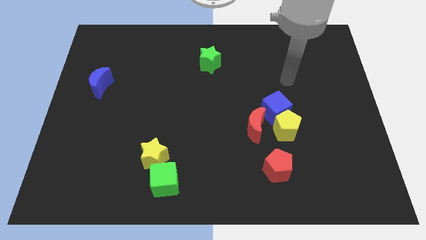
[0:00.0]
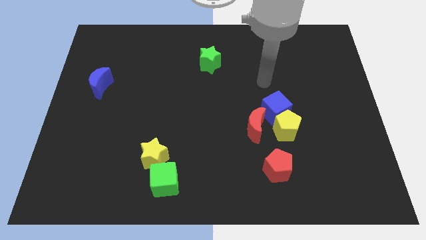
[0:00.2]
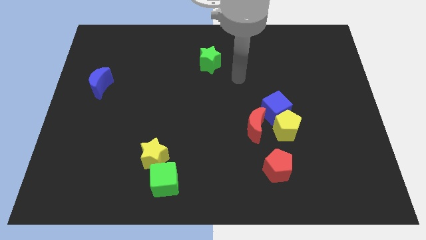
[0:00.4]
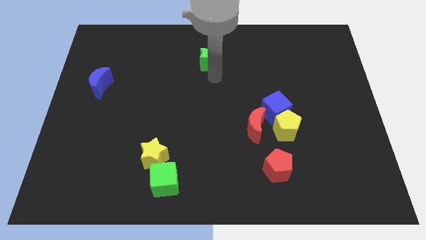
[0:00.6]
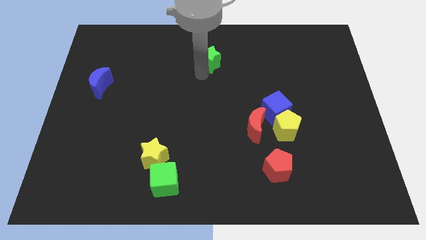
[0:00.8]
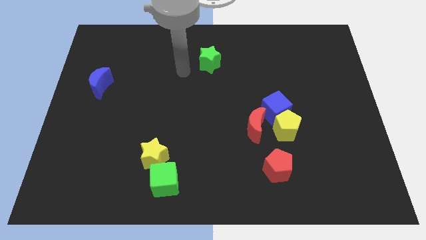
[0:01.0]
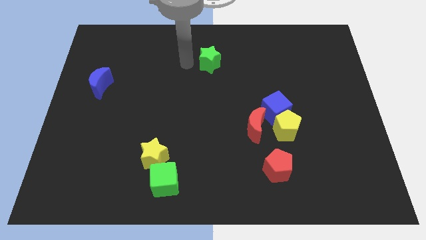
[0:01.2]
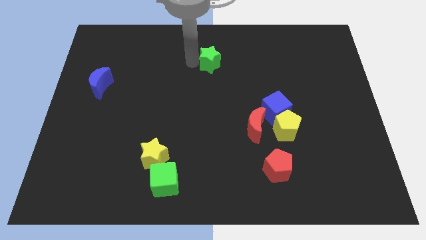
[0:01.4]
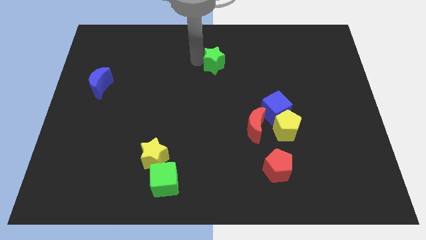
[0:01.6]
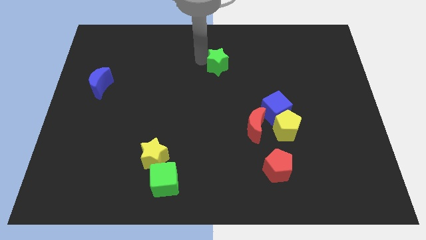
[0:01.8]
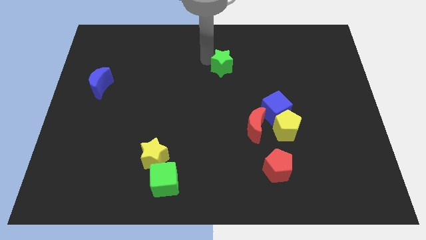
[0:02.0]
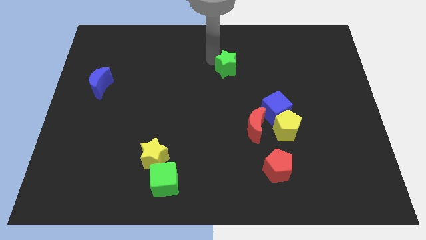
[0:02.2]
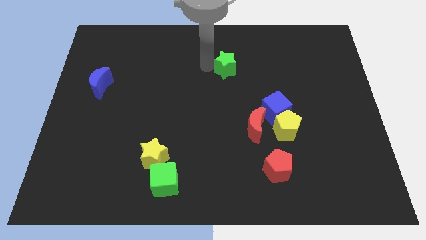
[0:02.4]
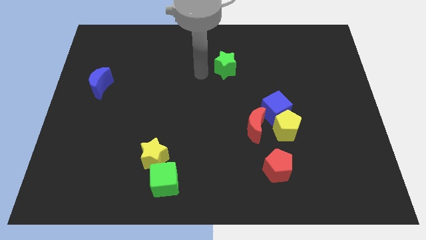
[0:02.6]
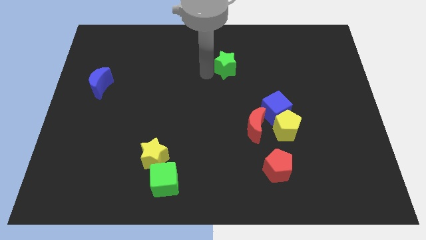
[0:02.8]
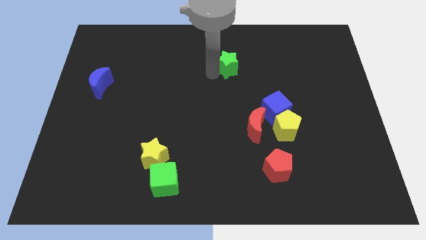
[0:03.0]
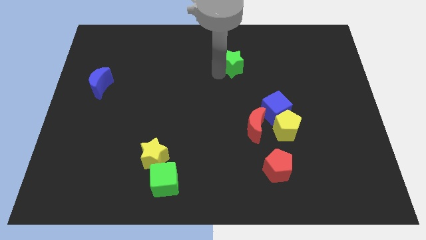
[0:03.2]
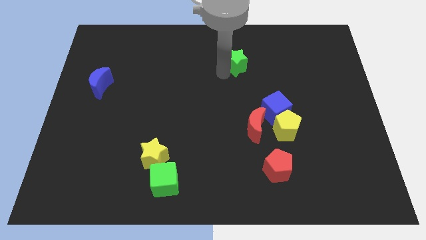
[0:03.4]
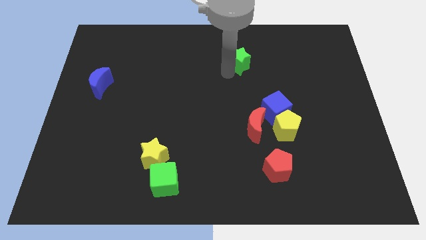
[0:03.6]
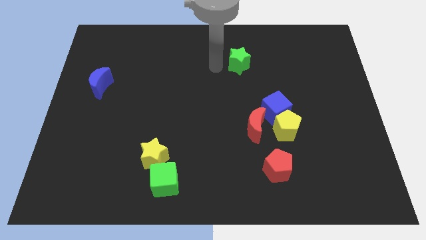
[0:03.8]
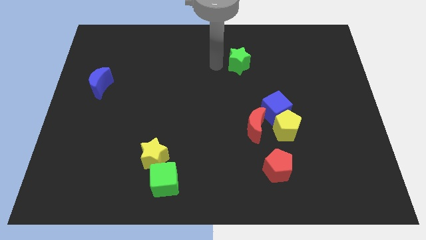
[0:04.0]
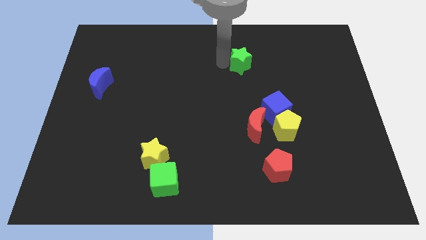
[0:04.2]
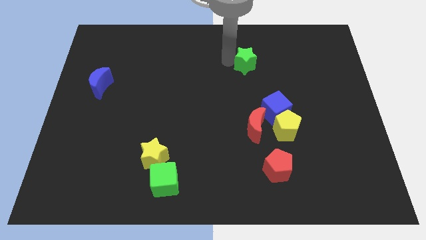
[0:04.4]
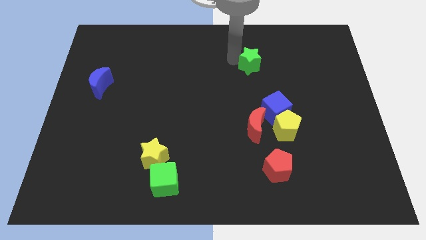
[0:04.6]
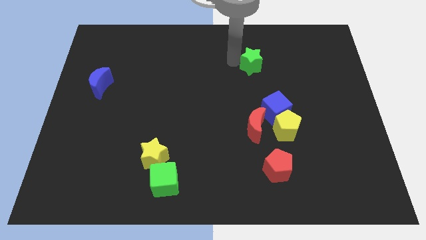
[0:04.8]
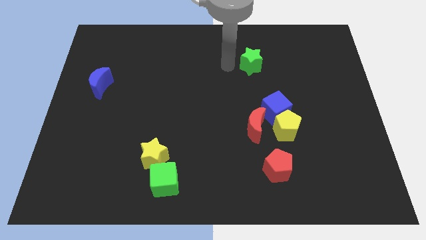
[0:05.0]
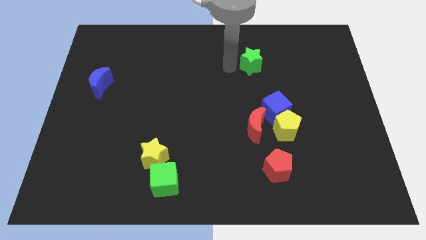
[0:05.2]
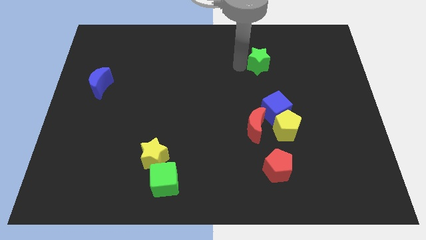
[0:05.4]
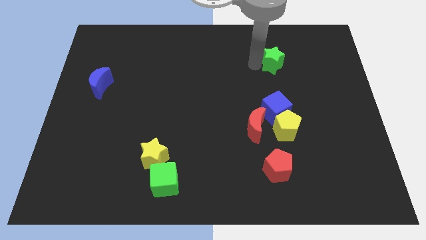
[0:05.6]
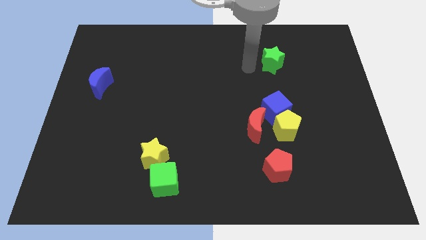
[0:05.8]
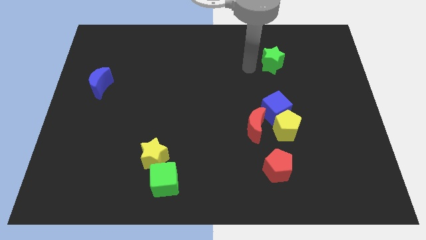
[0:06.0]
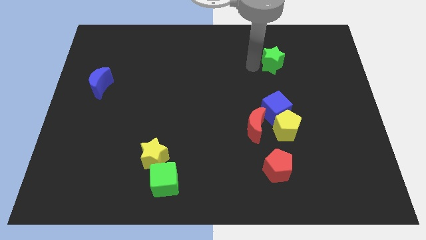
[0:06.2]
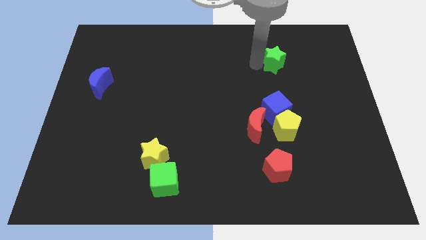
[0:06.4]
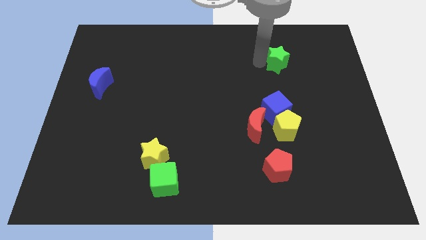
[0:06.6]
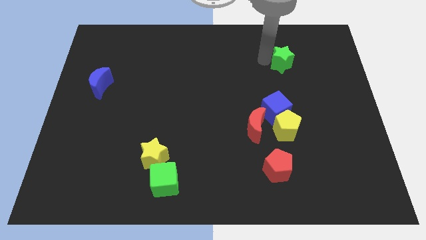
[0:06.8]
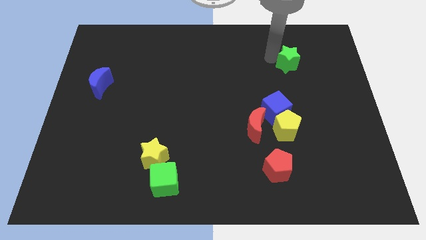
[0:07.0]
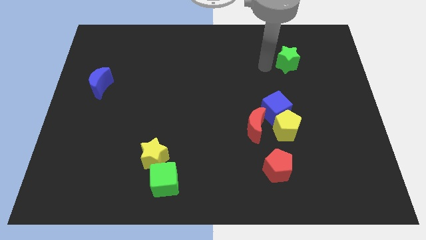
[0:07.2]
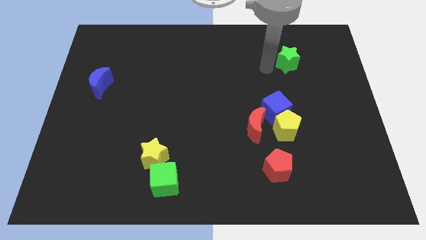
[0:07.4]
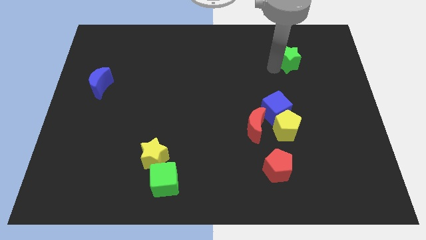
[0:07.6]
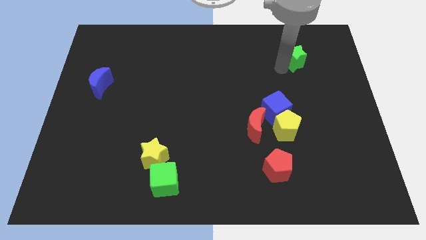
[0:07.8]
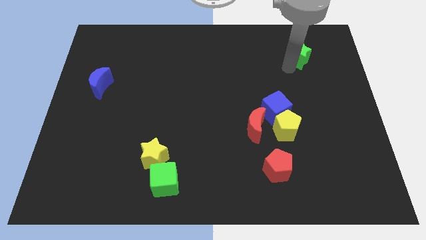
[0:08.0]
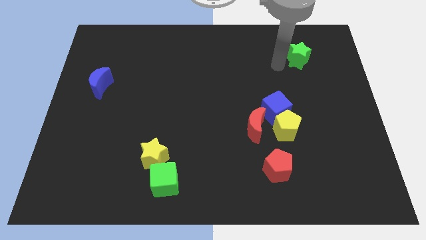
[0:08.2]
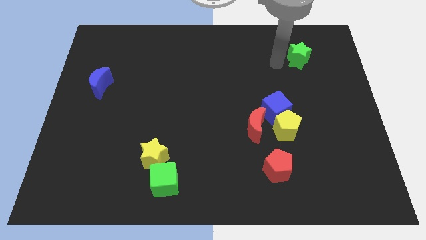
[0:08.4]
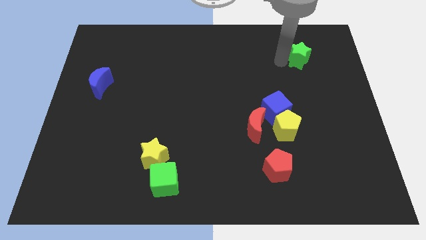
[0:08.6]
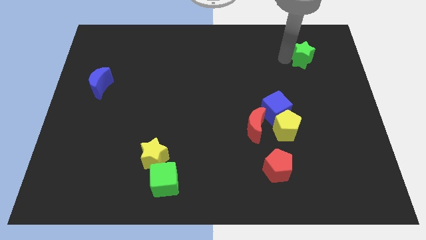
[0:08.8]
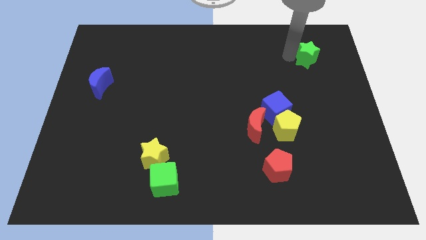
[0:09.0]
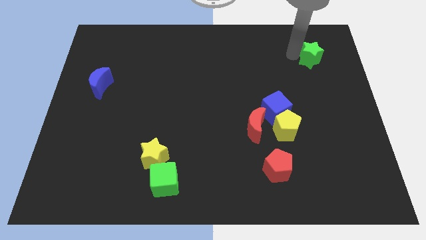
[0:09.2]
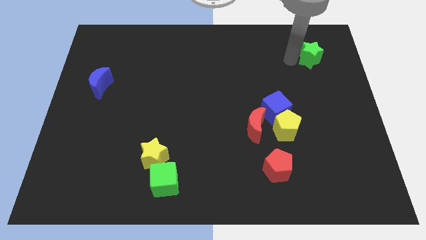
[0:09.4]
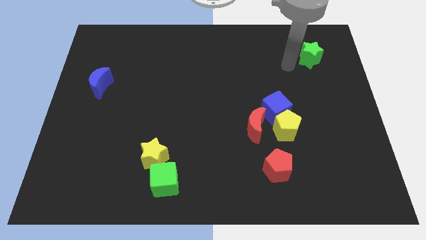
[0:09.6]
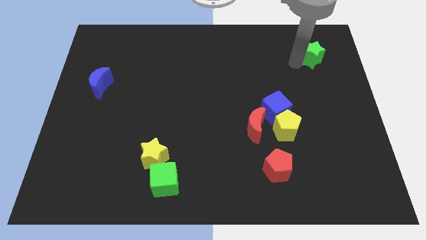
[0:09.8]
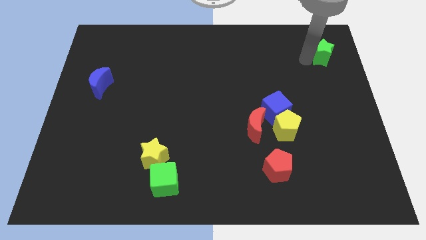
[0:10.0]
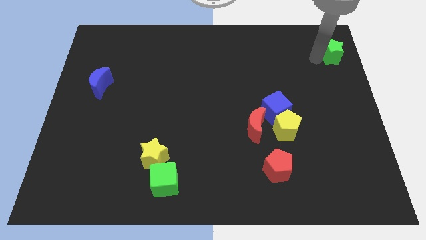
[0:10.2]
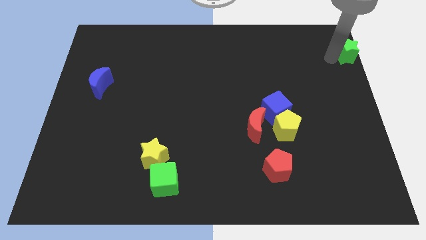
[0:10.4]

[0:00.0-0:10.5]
move the green star to the top right
